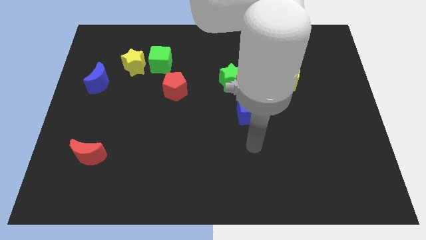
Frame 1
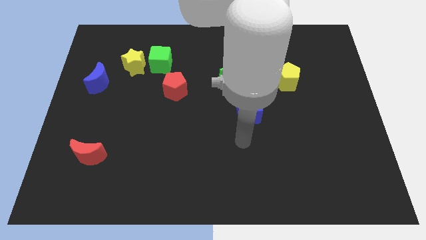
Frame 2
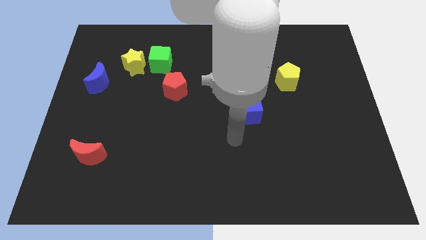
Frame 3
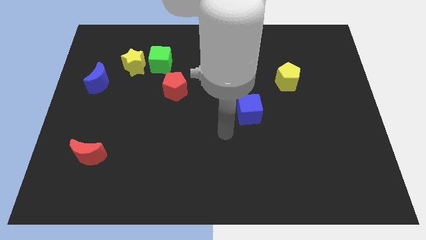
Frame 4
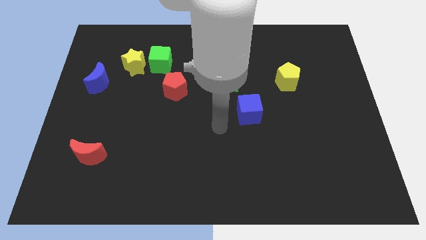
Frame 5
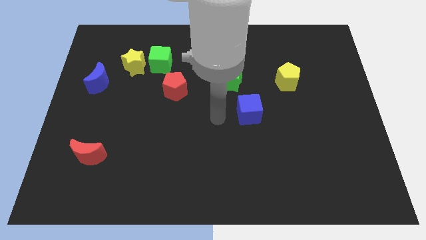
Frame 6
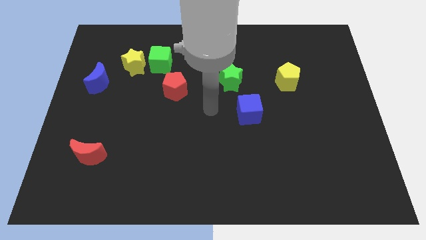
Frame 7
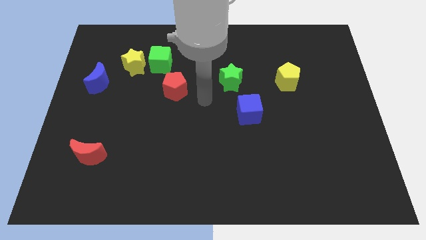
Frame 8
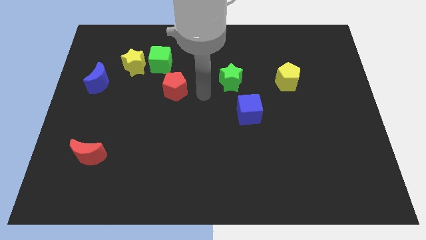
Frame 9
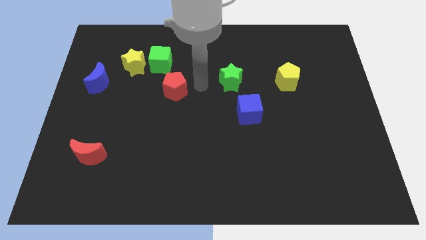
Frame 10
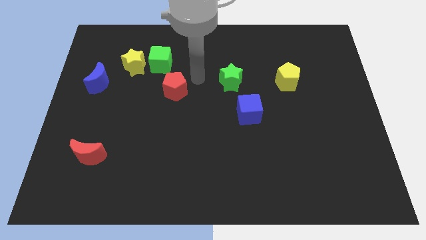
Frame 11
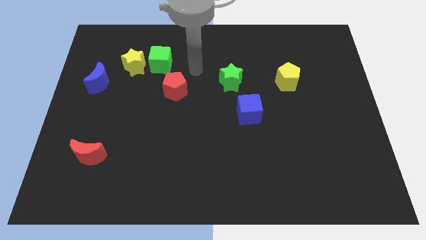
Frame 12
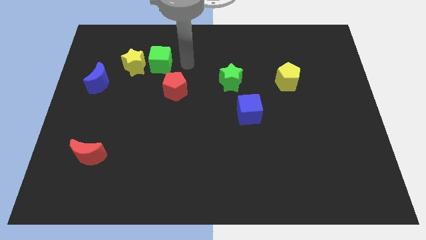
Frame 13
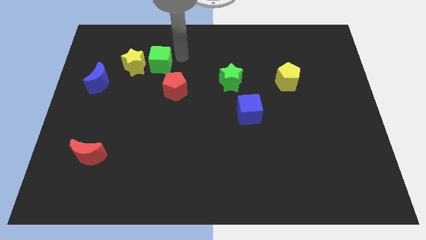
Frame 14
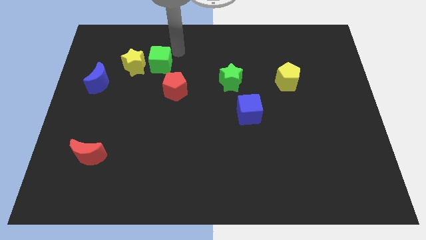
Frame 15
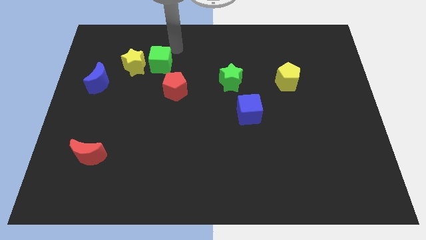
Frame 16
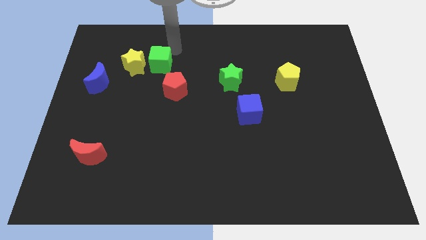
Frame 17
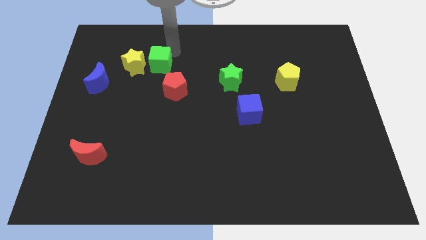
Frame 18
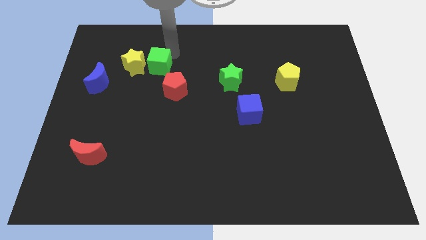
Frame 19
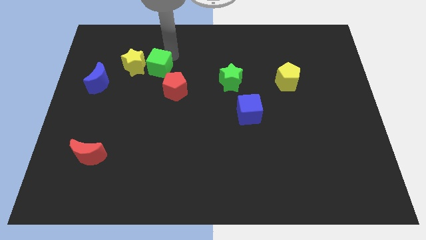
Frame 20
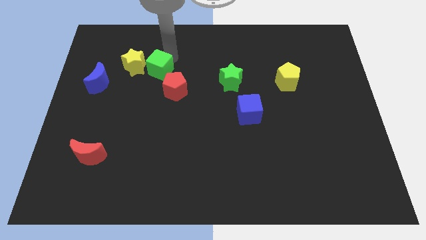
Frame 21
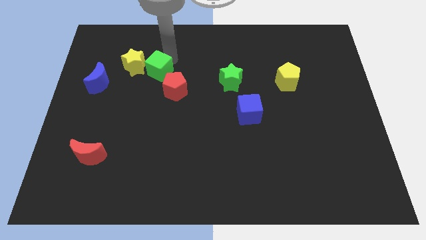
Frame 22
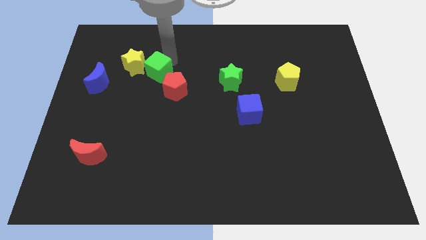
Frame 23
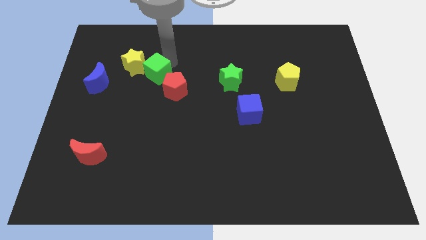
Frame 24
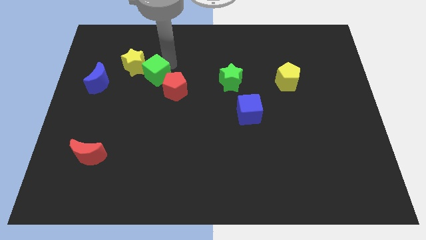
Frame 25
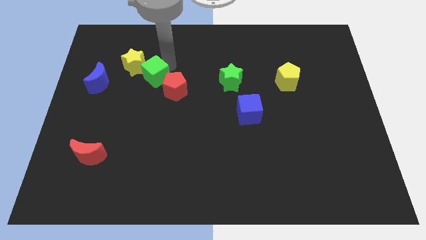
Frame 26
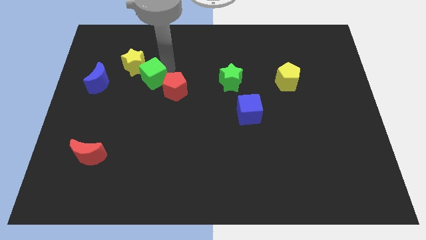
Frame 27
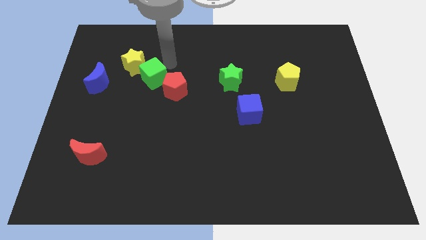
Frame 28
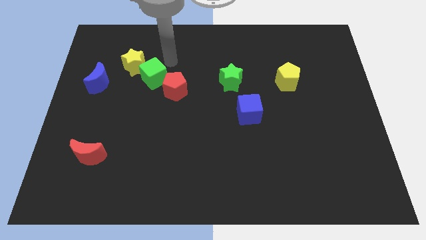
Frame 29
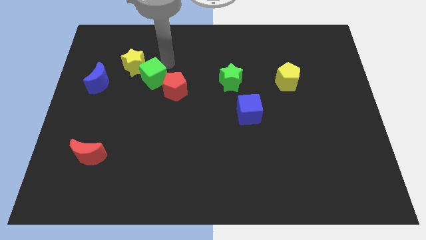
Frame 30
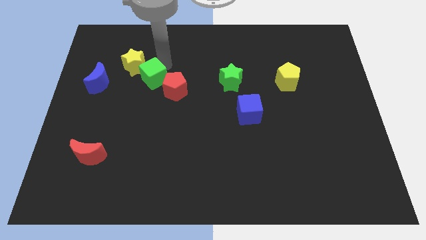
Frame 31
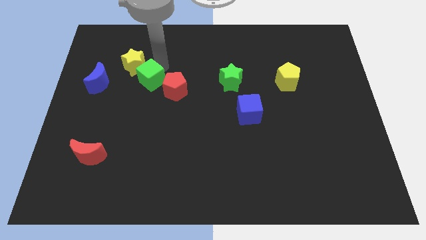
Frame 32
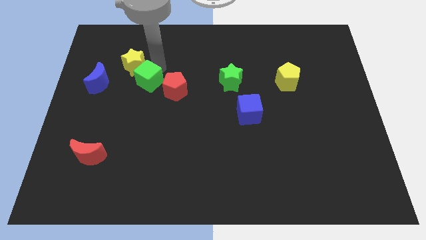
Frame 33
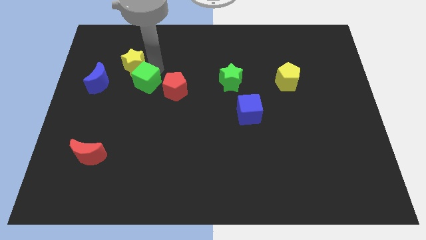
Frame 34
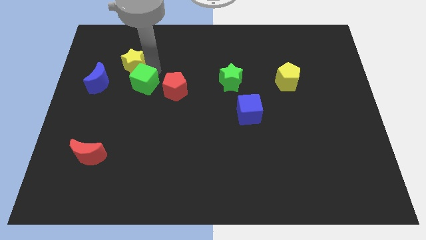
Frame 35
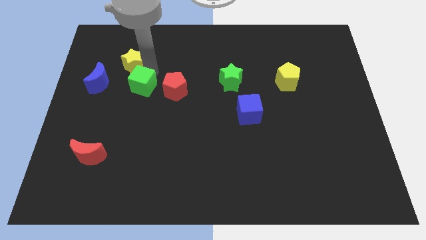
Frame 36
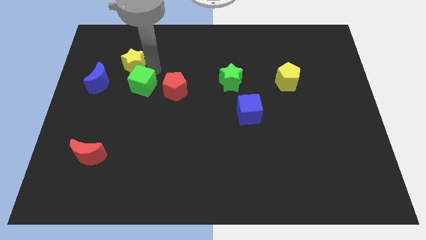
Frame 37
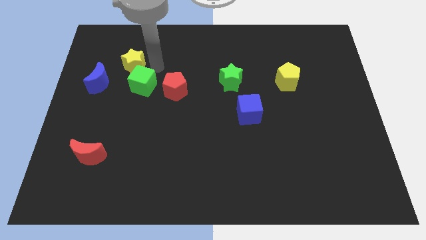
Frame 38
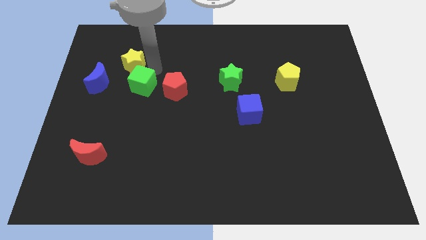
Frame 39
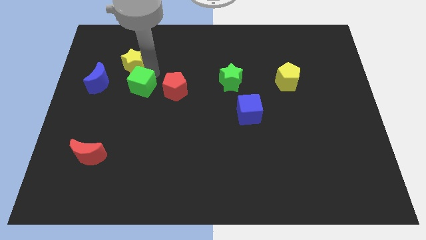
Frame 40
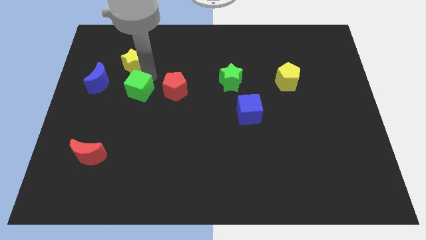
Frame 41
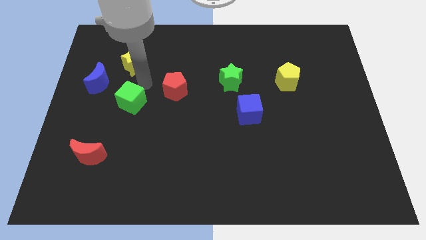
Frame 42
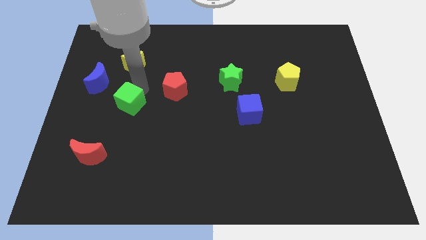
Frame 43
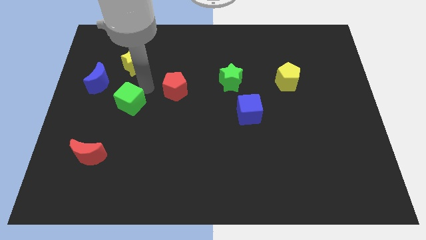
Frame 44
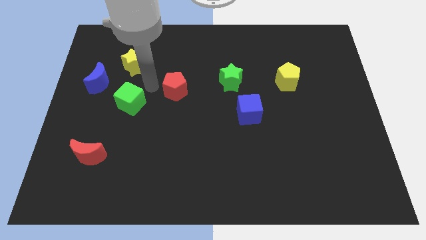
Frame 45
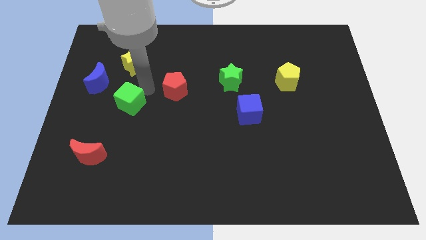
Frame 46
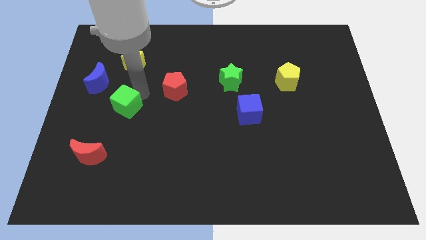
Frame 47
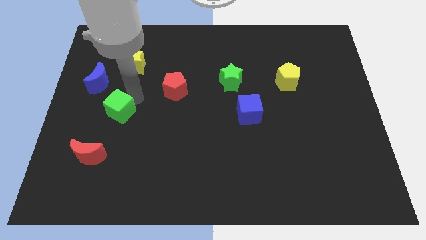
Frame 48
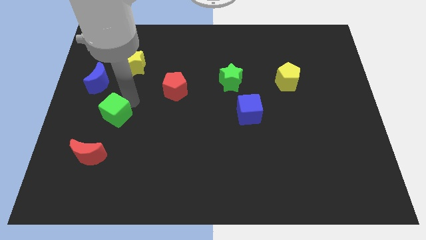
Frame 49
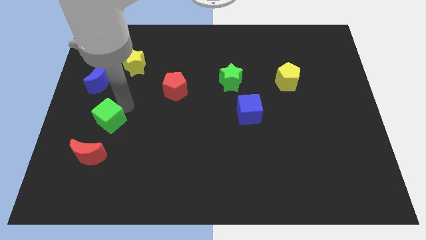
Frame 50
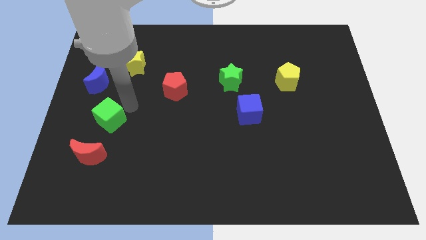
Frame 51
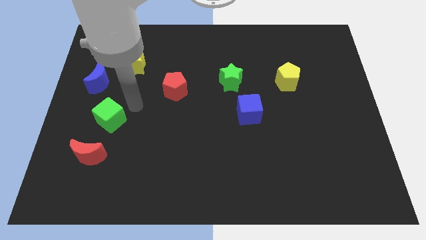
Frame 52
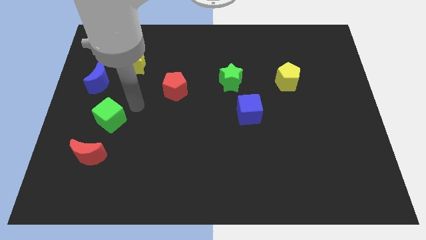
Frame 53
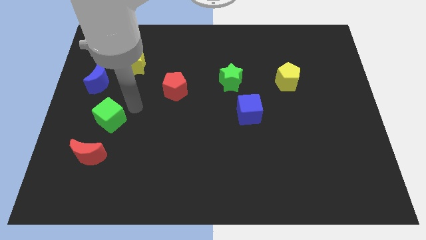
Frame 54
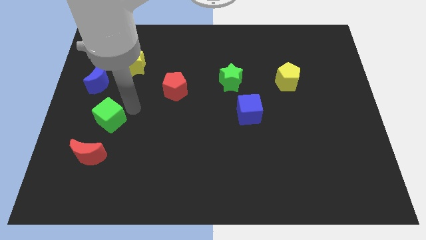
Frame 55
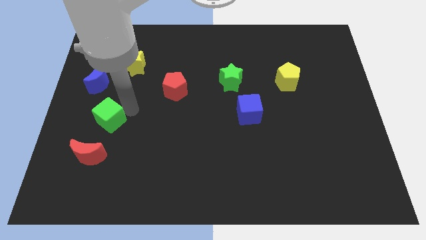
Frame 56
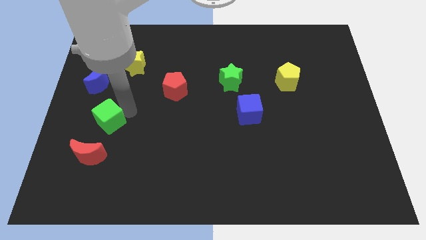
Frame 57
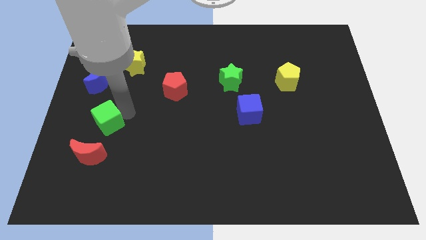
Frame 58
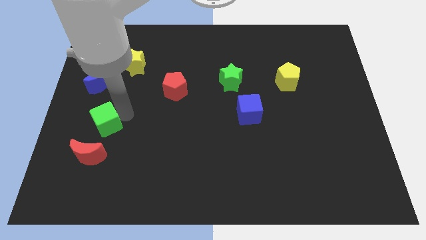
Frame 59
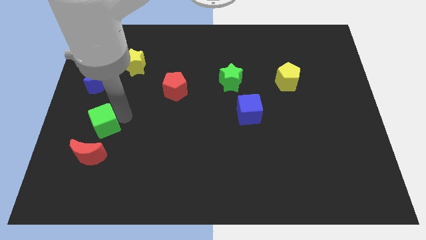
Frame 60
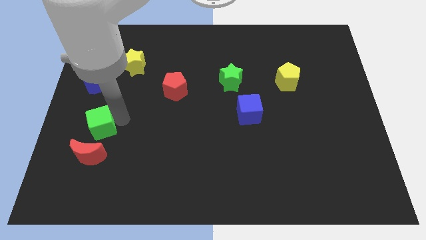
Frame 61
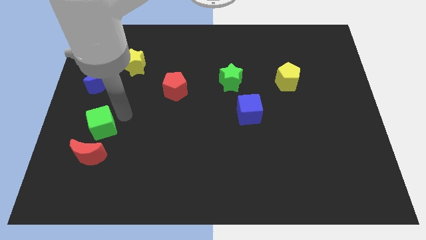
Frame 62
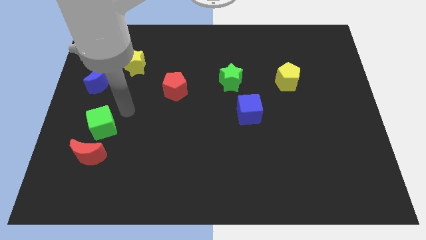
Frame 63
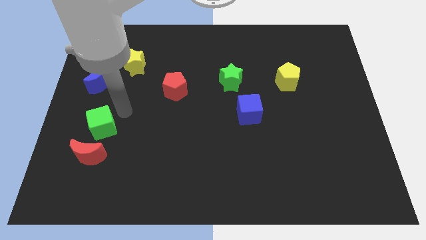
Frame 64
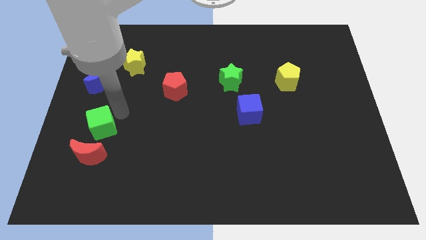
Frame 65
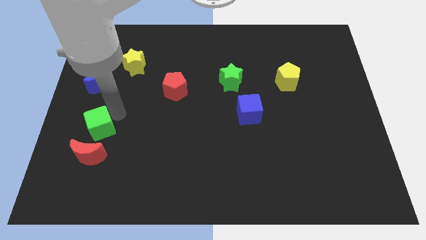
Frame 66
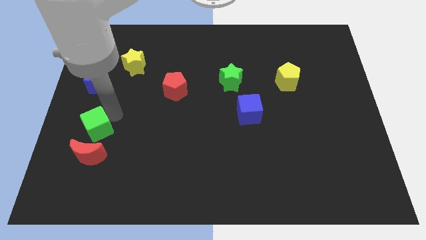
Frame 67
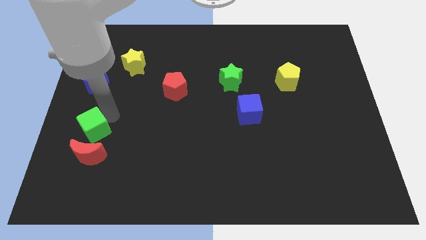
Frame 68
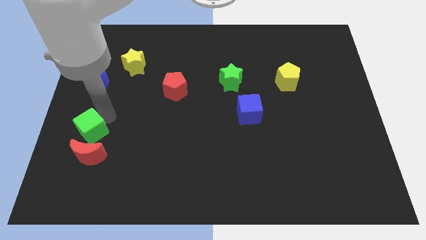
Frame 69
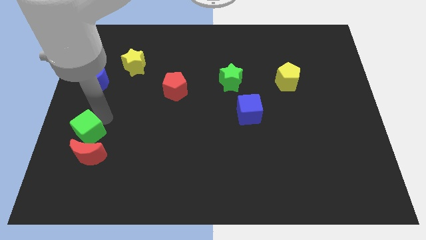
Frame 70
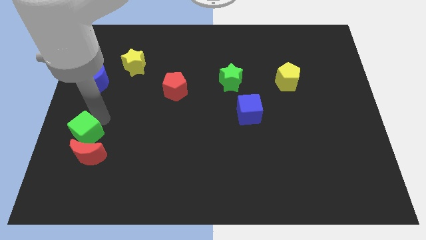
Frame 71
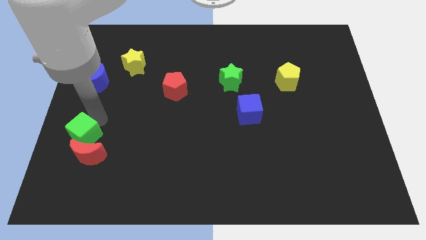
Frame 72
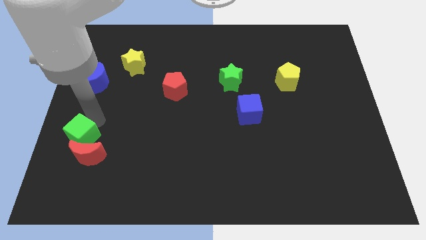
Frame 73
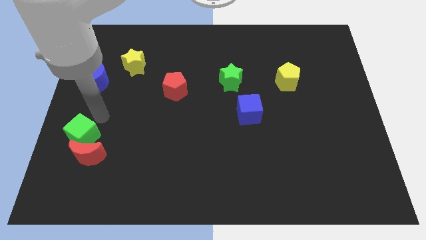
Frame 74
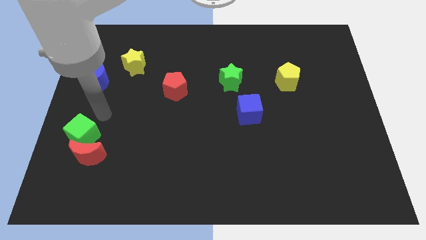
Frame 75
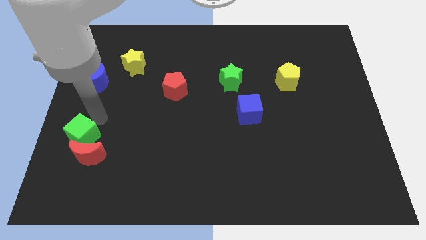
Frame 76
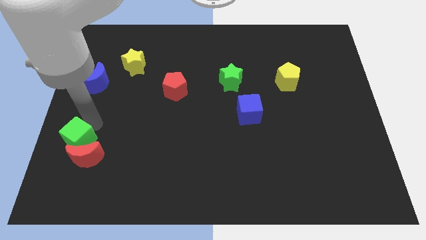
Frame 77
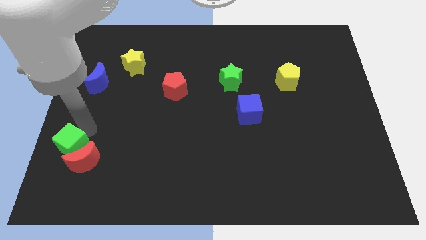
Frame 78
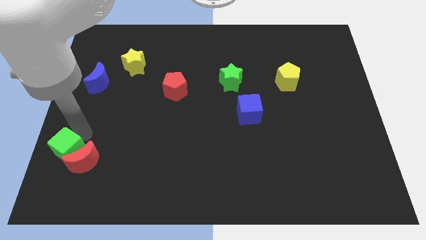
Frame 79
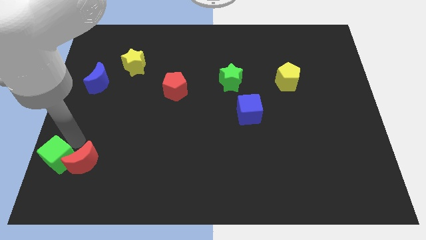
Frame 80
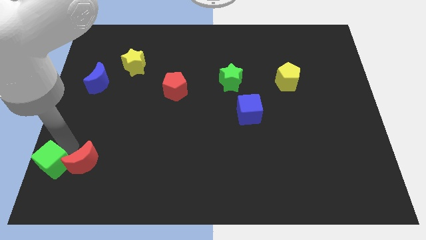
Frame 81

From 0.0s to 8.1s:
slide the green cube to the bottom left corner
